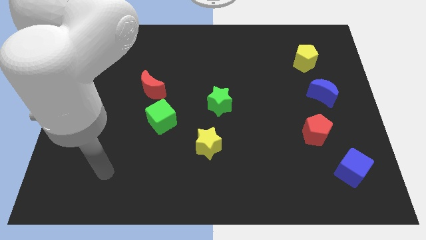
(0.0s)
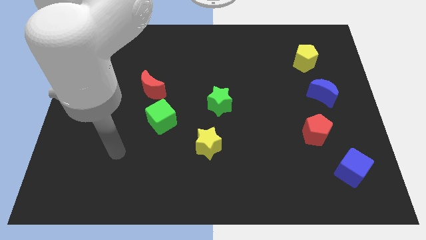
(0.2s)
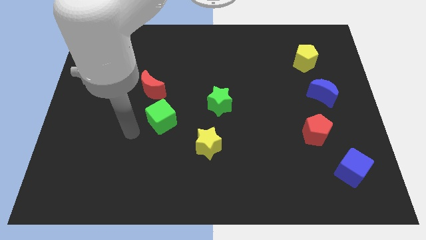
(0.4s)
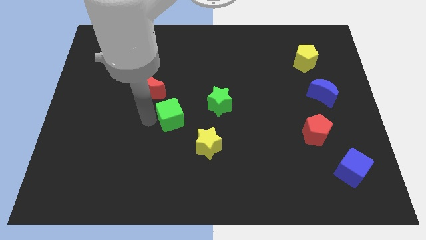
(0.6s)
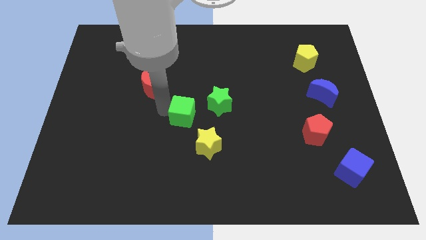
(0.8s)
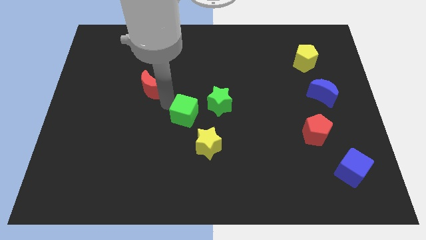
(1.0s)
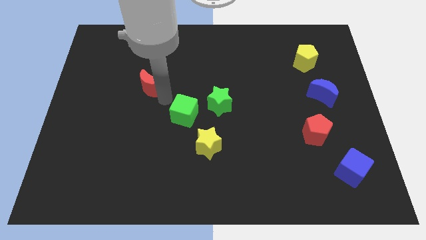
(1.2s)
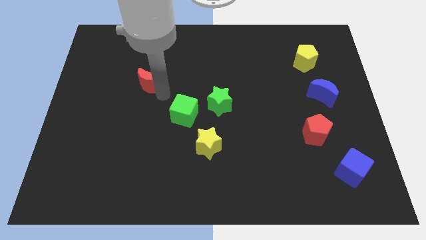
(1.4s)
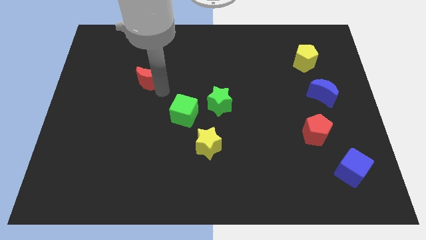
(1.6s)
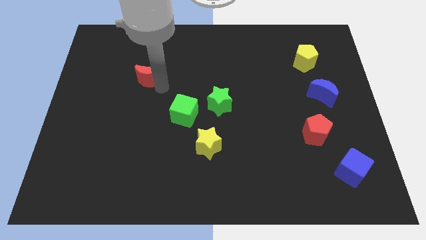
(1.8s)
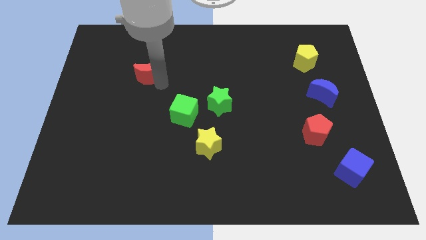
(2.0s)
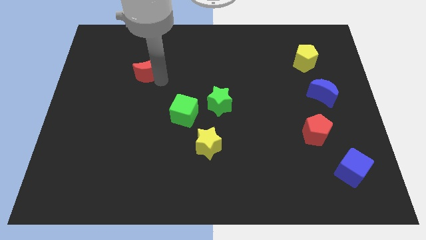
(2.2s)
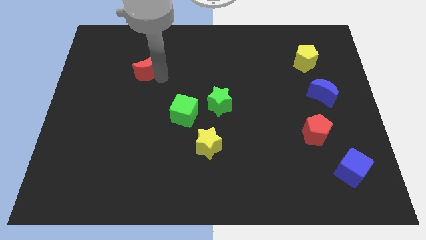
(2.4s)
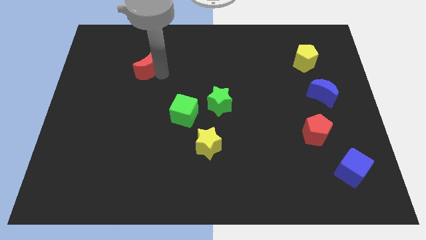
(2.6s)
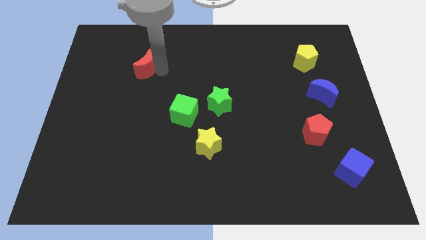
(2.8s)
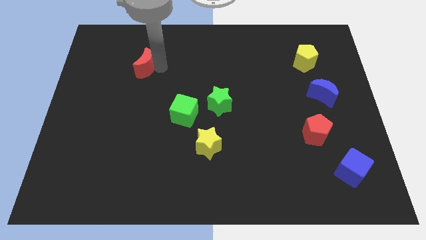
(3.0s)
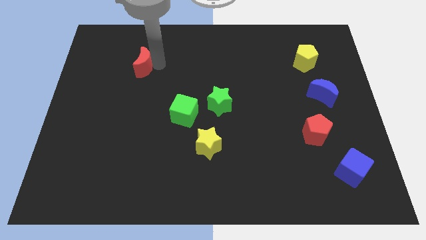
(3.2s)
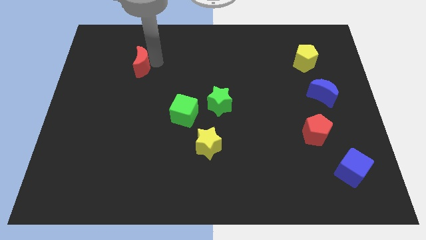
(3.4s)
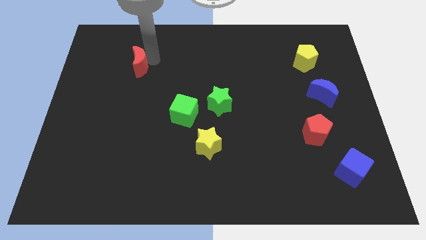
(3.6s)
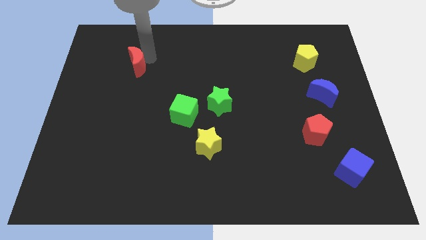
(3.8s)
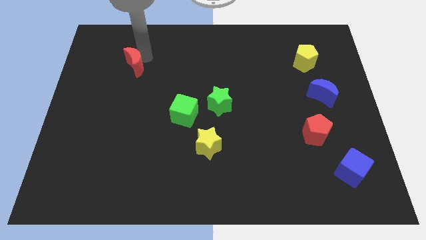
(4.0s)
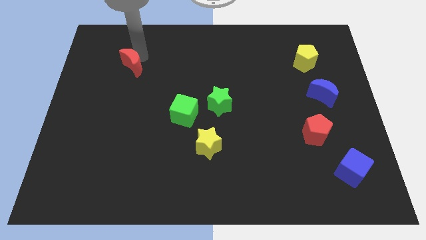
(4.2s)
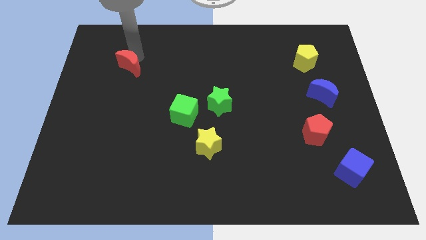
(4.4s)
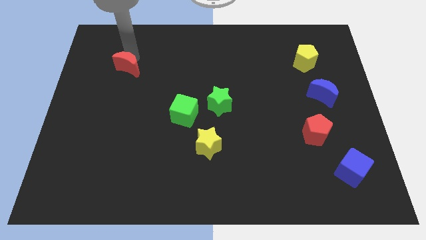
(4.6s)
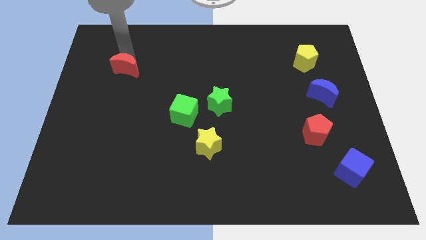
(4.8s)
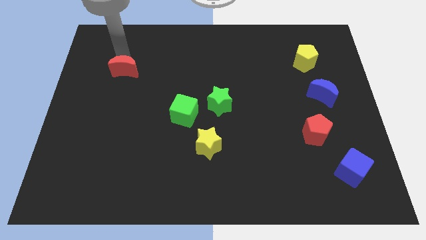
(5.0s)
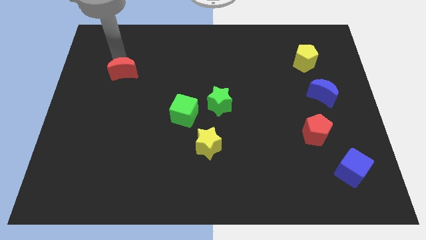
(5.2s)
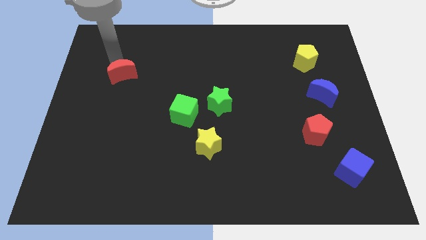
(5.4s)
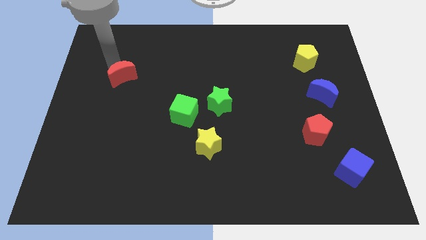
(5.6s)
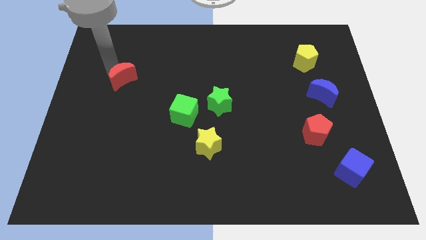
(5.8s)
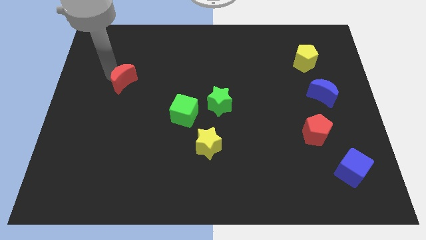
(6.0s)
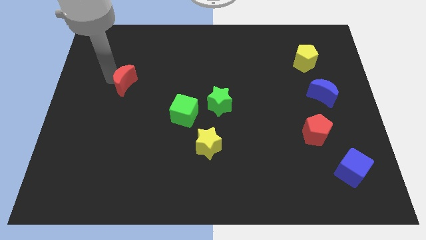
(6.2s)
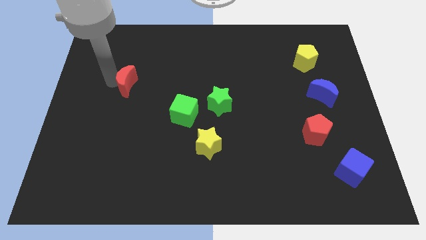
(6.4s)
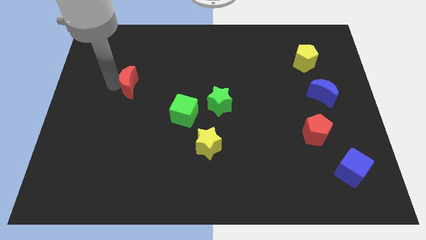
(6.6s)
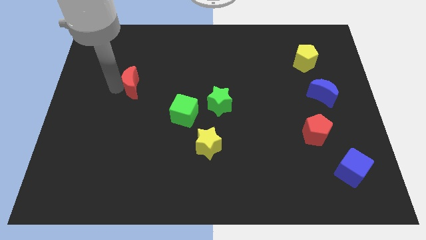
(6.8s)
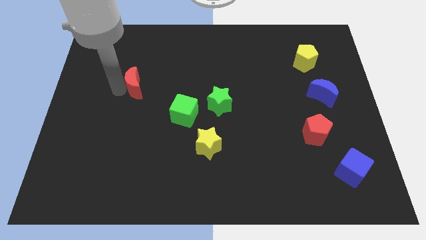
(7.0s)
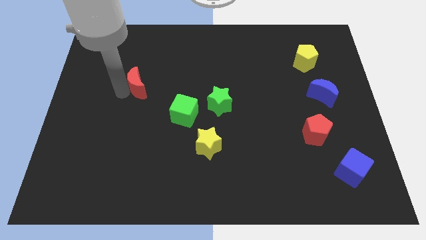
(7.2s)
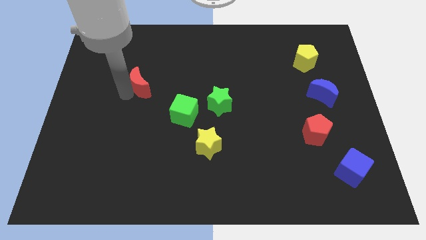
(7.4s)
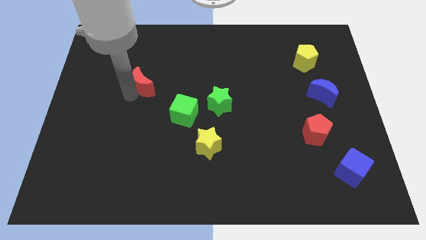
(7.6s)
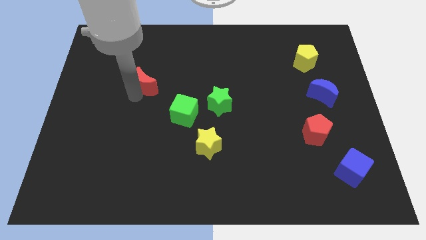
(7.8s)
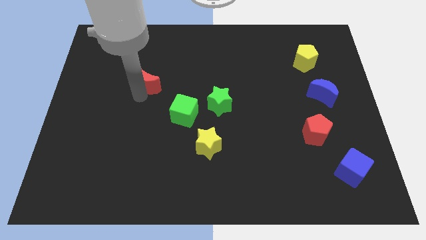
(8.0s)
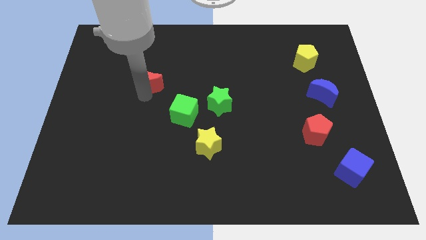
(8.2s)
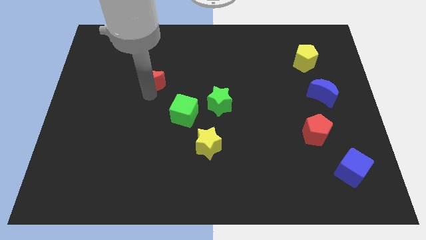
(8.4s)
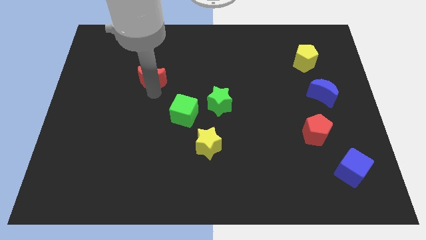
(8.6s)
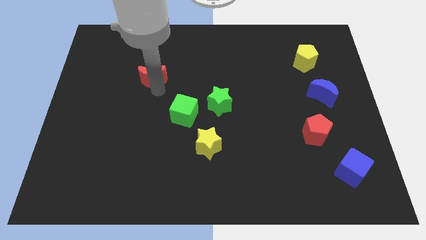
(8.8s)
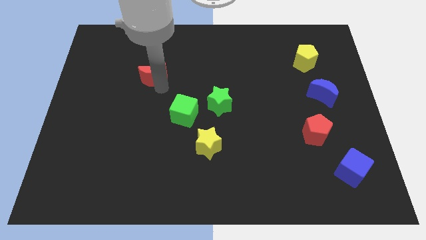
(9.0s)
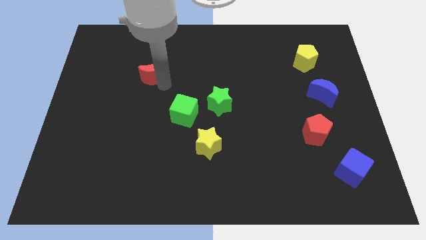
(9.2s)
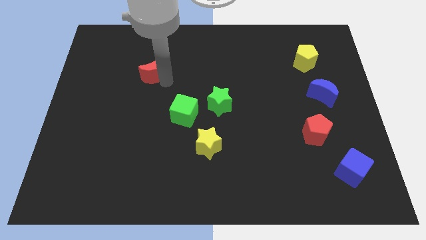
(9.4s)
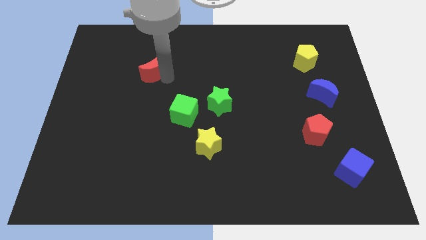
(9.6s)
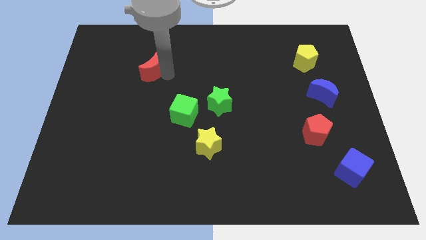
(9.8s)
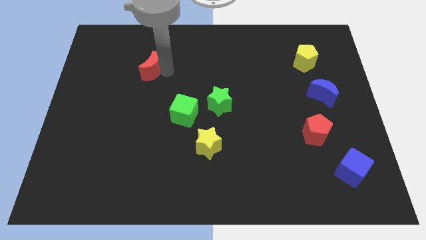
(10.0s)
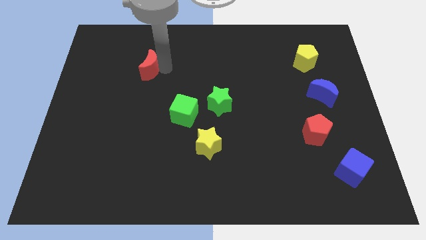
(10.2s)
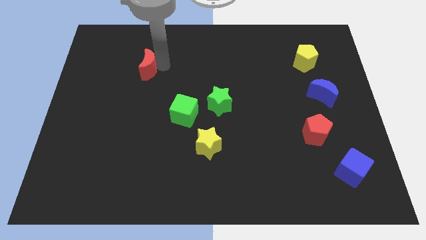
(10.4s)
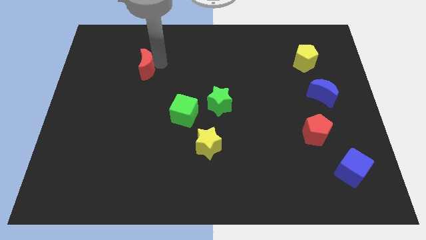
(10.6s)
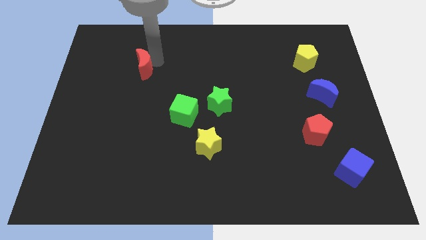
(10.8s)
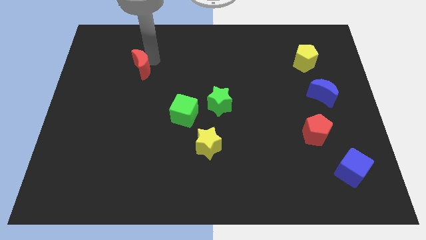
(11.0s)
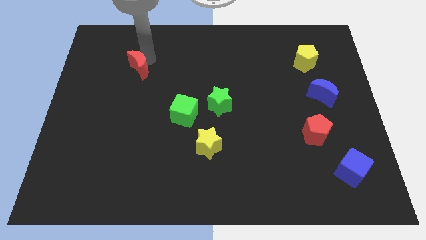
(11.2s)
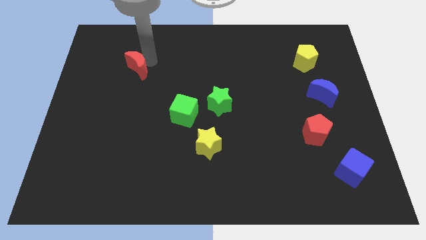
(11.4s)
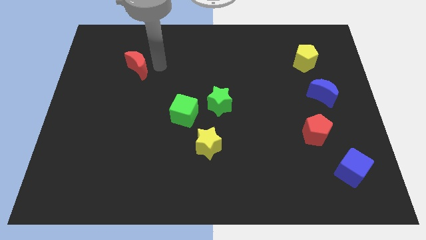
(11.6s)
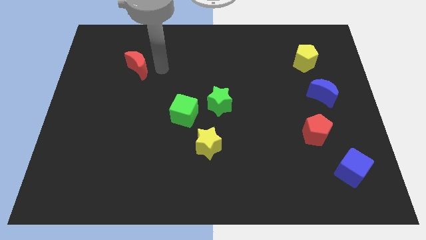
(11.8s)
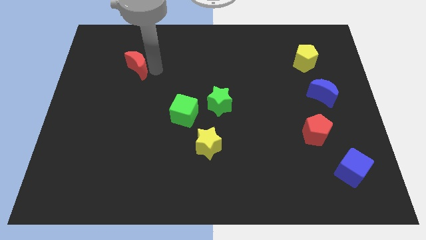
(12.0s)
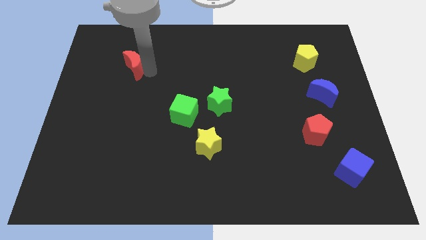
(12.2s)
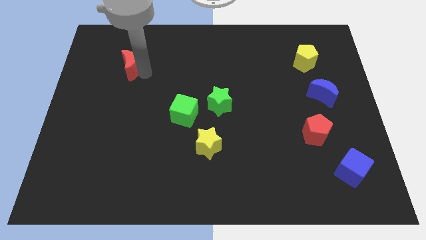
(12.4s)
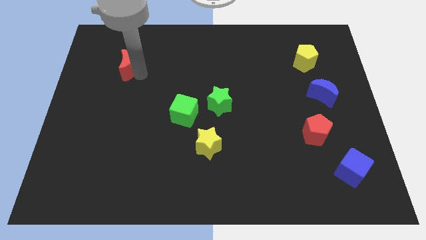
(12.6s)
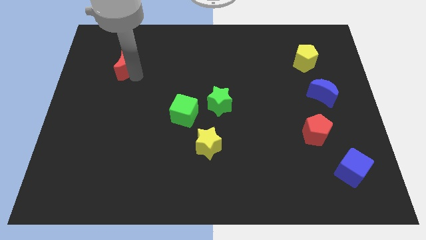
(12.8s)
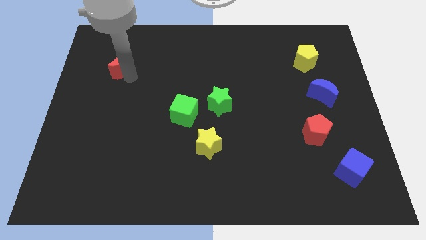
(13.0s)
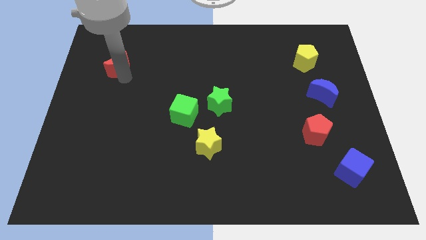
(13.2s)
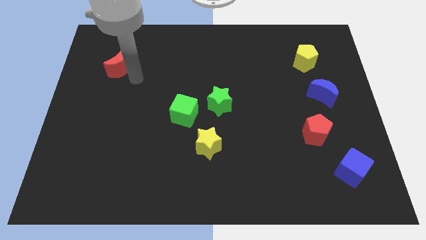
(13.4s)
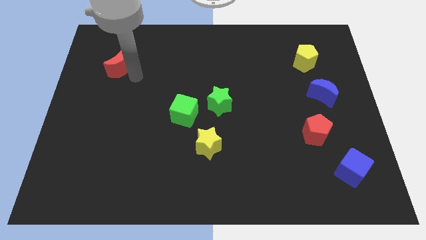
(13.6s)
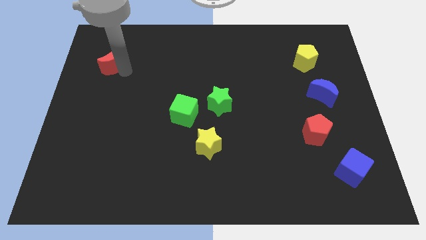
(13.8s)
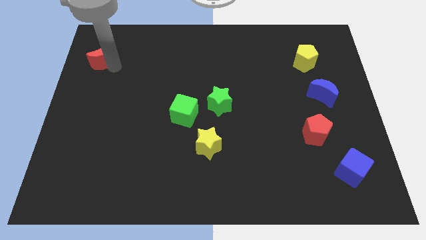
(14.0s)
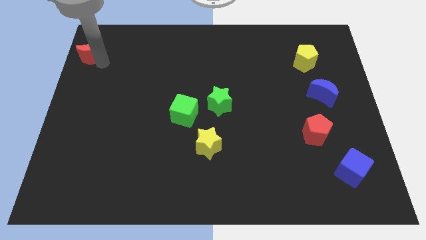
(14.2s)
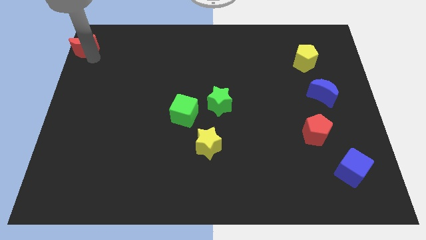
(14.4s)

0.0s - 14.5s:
push the red moon to the top left corner

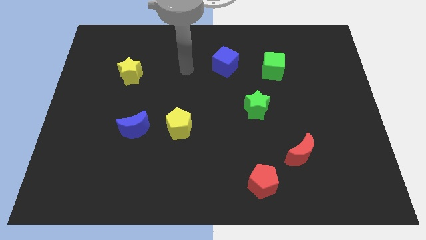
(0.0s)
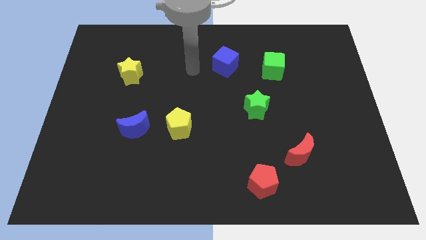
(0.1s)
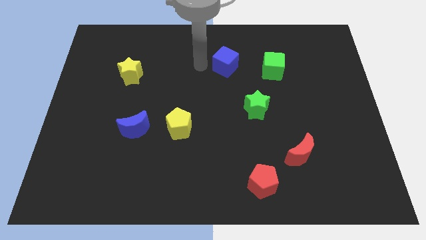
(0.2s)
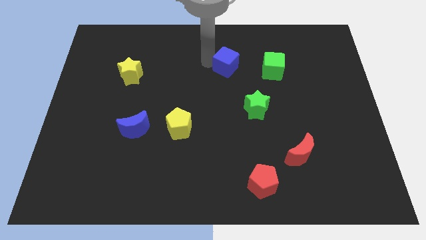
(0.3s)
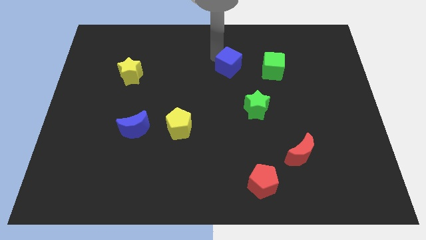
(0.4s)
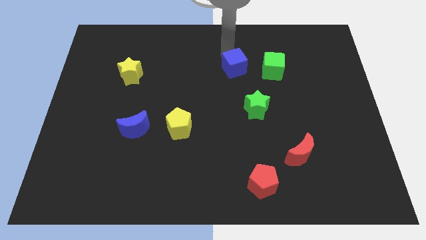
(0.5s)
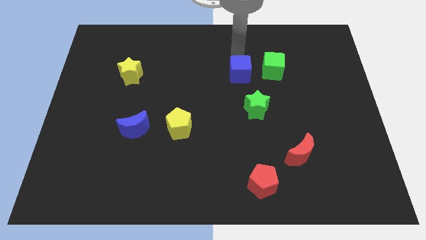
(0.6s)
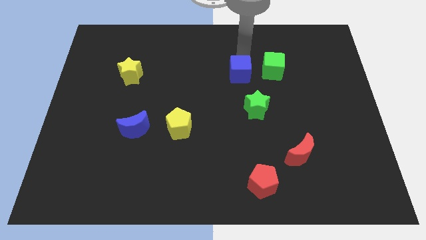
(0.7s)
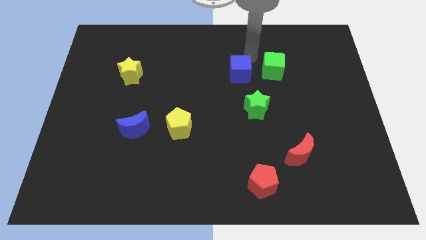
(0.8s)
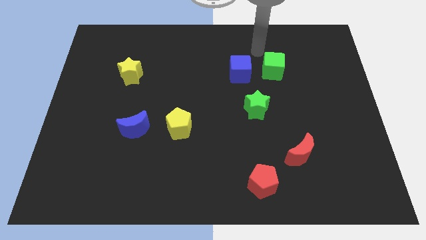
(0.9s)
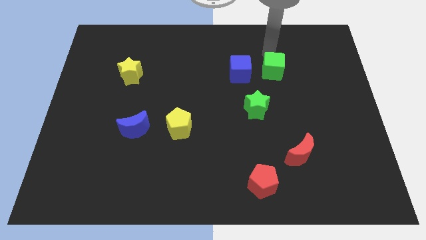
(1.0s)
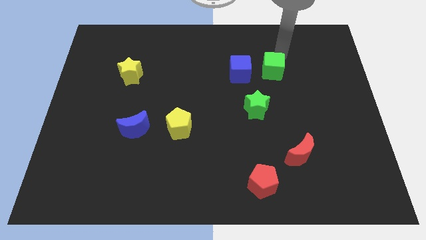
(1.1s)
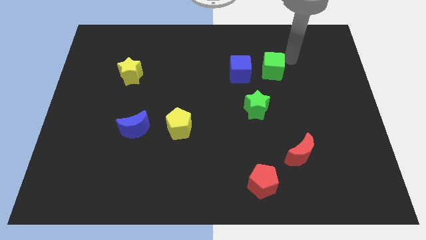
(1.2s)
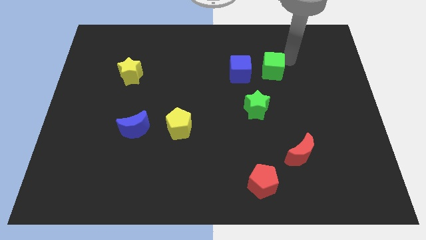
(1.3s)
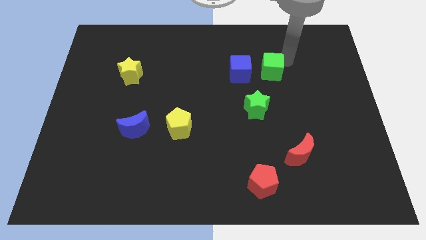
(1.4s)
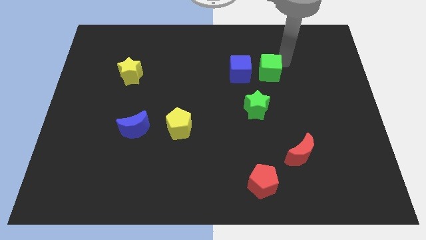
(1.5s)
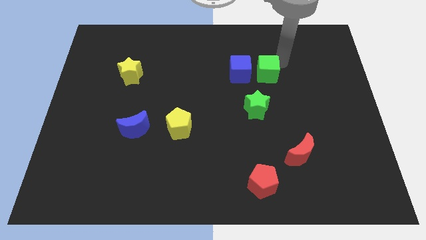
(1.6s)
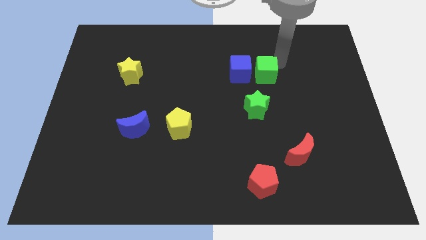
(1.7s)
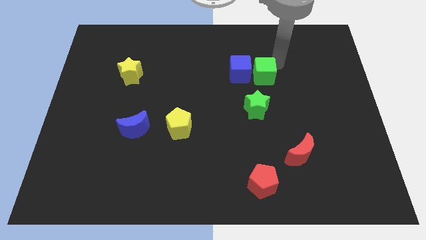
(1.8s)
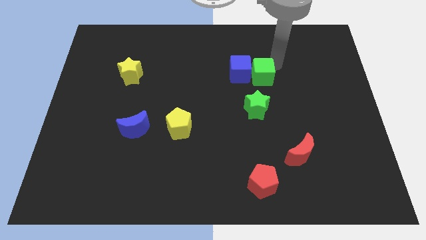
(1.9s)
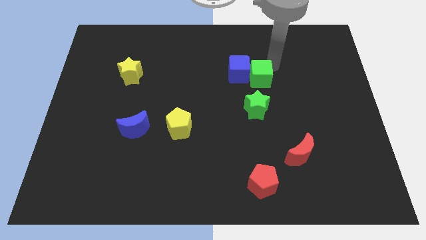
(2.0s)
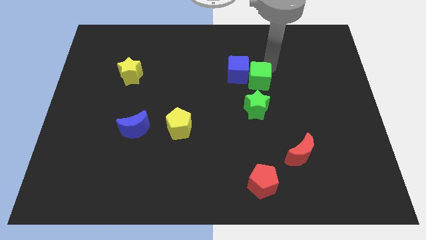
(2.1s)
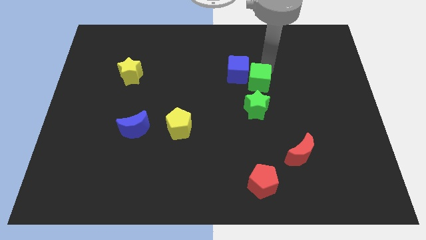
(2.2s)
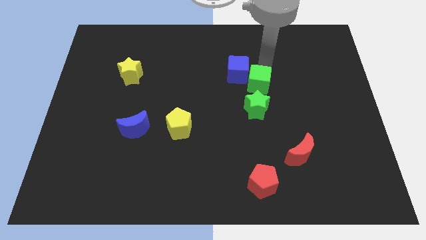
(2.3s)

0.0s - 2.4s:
put the green cube to the middle
